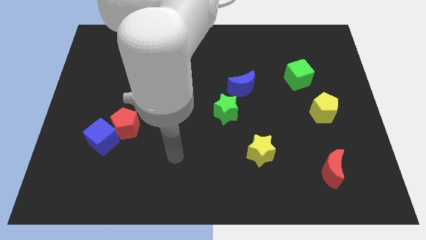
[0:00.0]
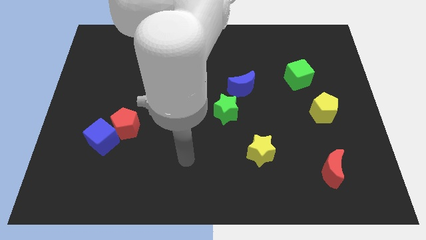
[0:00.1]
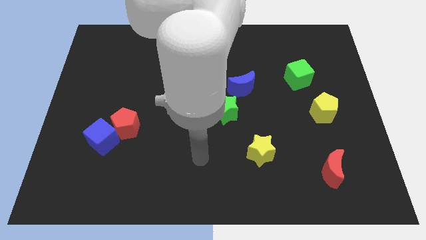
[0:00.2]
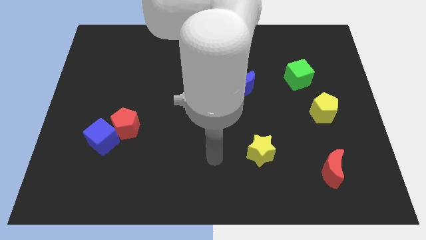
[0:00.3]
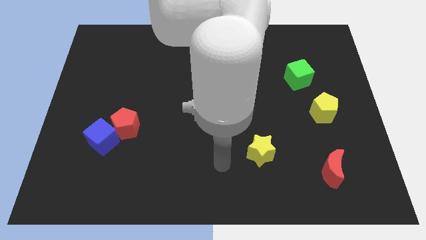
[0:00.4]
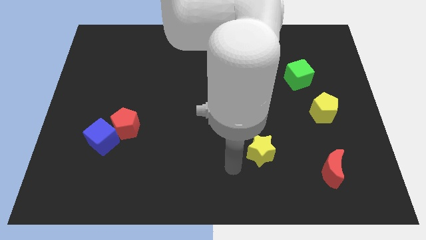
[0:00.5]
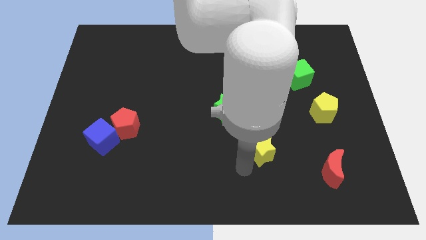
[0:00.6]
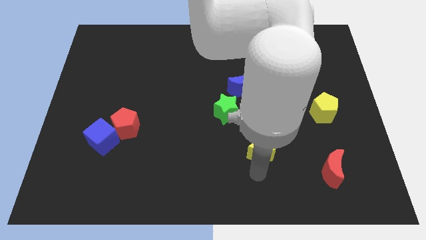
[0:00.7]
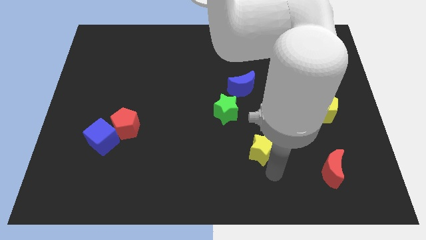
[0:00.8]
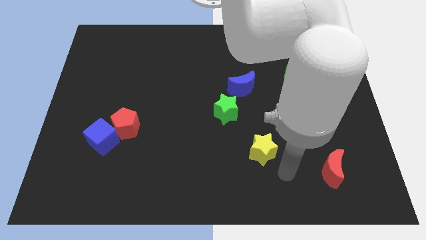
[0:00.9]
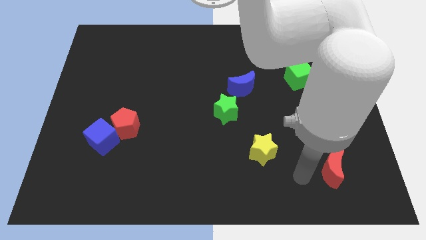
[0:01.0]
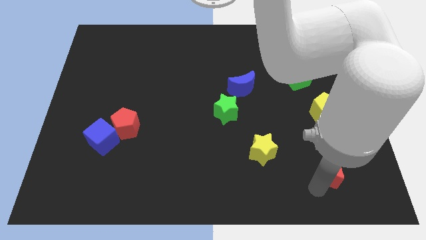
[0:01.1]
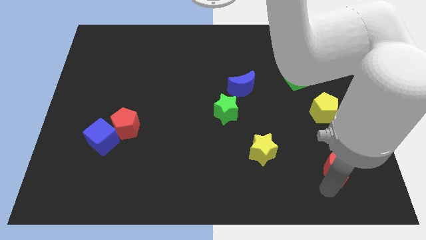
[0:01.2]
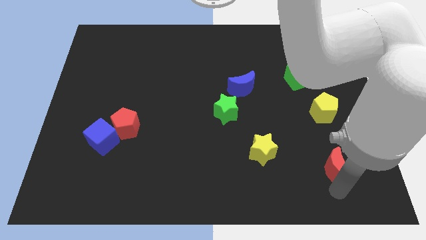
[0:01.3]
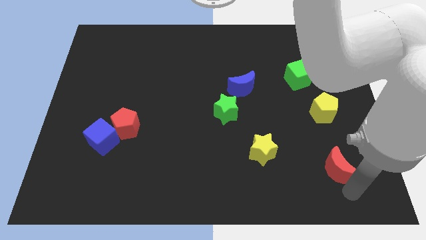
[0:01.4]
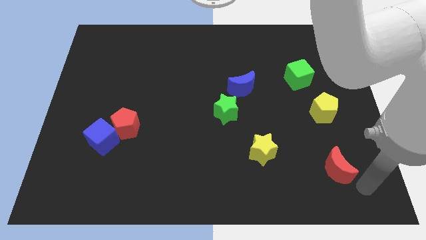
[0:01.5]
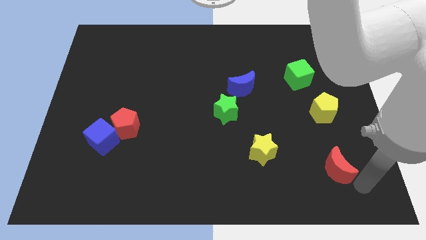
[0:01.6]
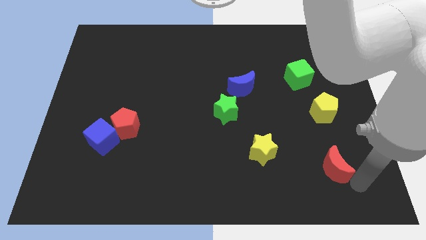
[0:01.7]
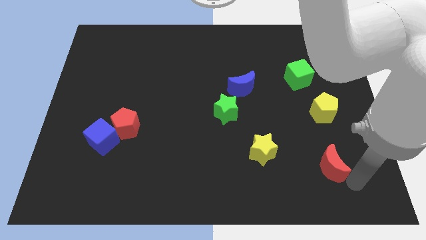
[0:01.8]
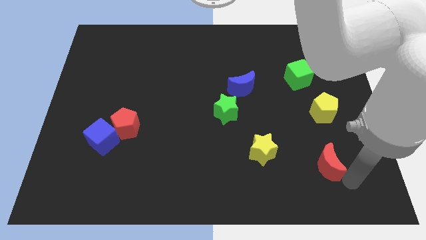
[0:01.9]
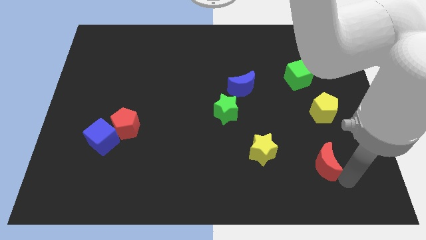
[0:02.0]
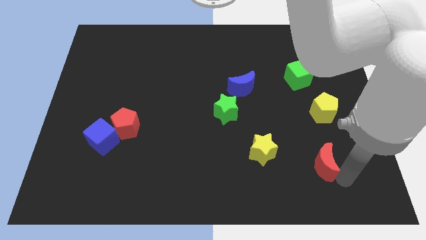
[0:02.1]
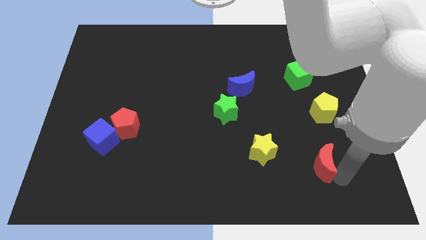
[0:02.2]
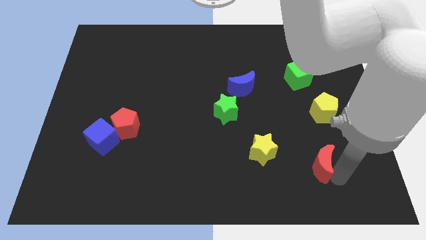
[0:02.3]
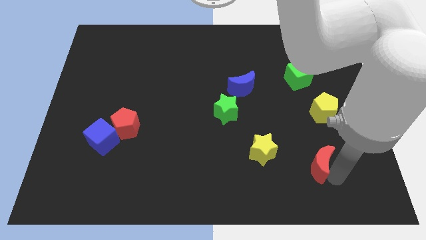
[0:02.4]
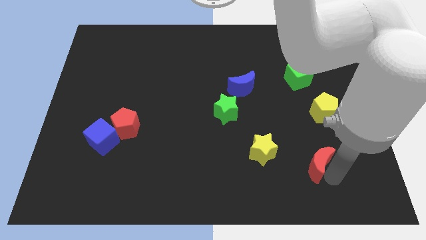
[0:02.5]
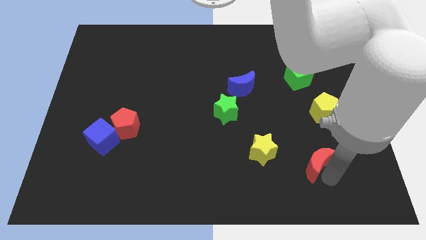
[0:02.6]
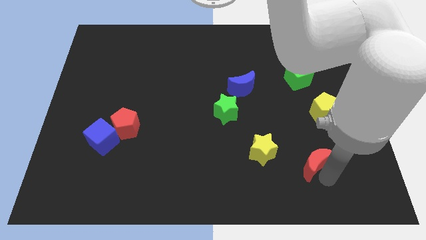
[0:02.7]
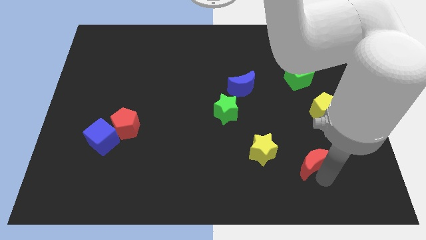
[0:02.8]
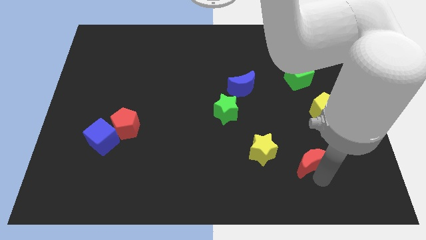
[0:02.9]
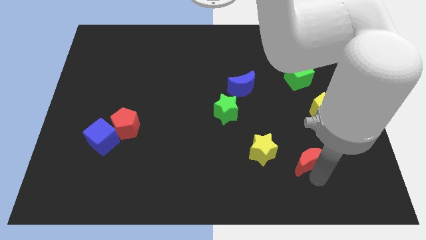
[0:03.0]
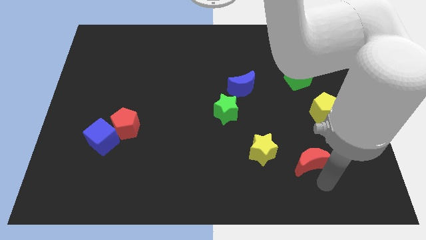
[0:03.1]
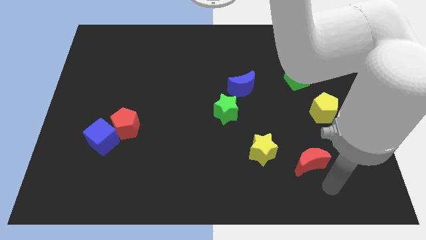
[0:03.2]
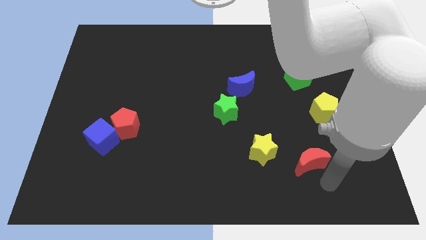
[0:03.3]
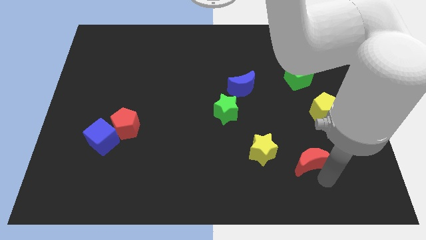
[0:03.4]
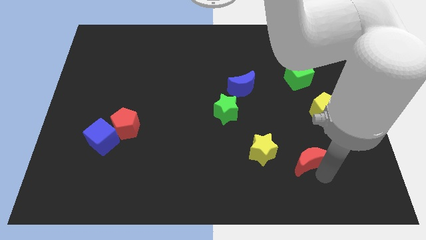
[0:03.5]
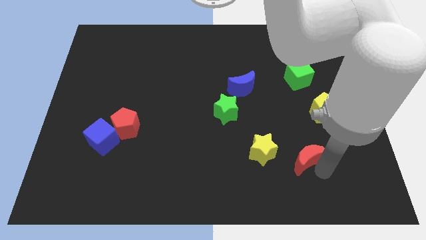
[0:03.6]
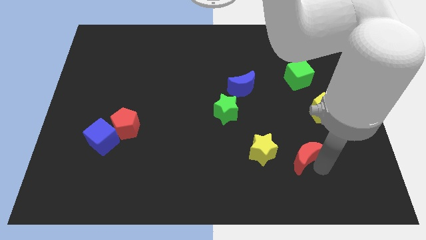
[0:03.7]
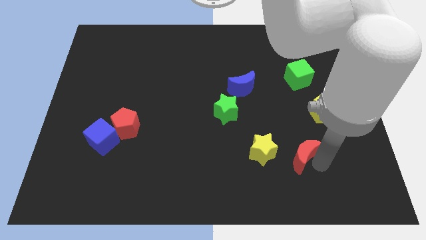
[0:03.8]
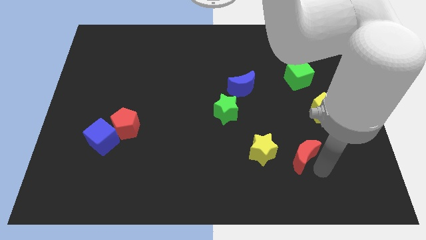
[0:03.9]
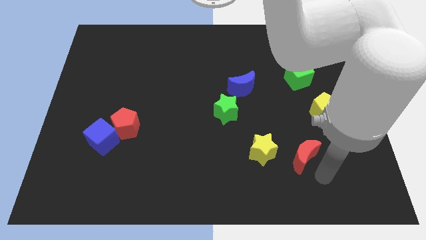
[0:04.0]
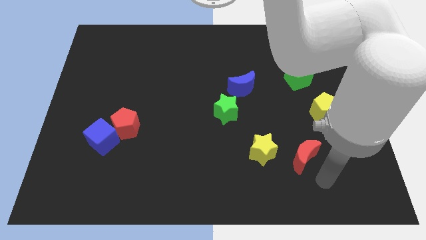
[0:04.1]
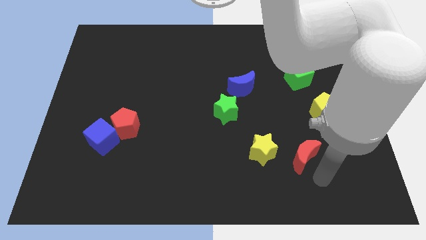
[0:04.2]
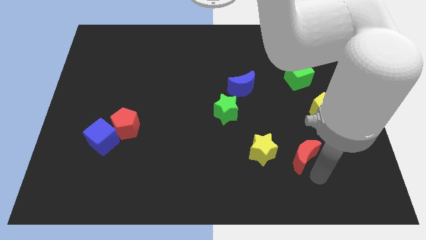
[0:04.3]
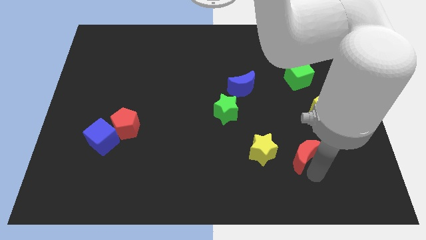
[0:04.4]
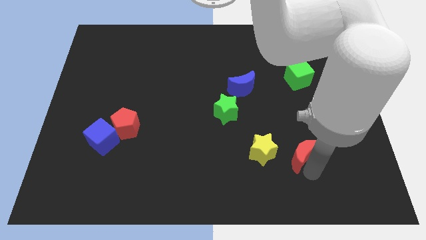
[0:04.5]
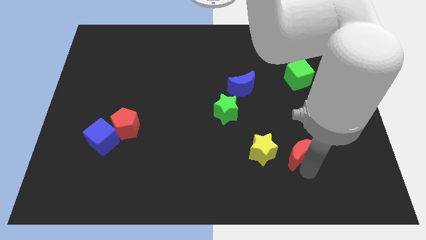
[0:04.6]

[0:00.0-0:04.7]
push the red moon up and left a bit

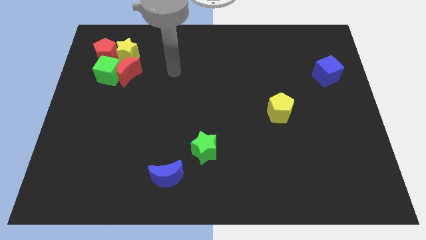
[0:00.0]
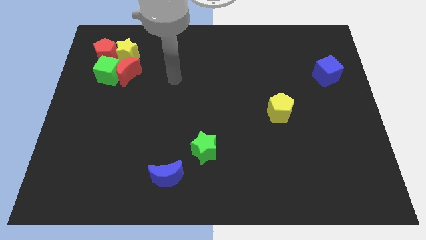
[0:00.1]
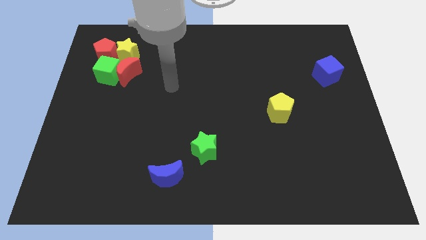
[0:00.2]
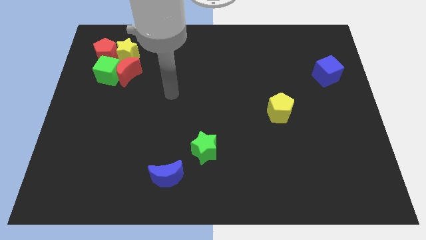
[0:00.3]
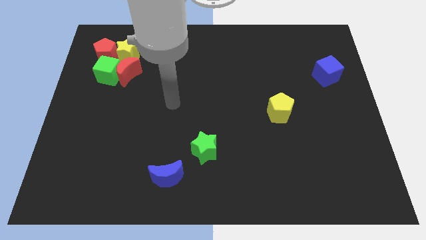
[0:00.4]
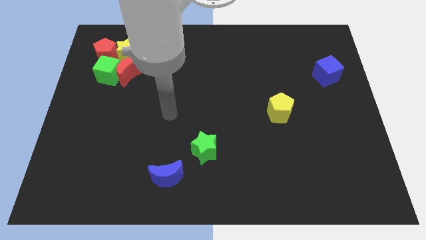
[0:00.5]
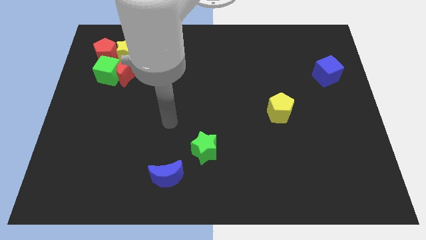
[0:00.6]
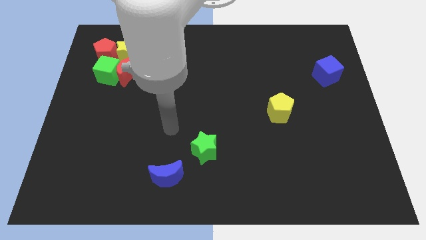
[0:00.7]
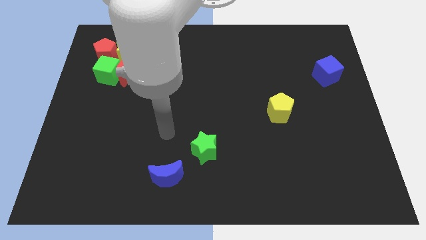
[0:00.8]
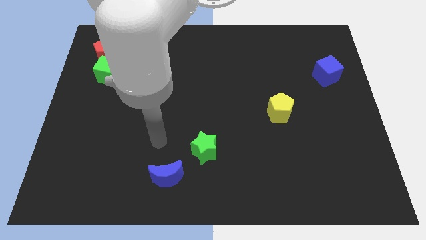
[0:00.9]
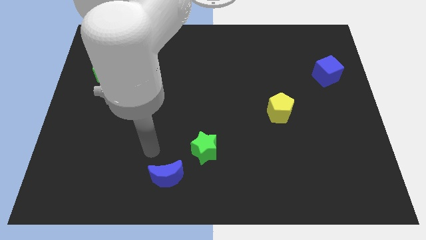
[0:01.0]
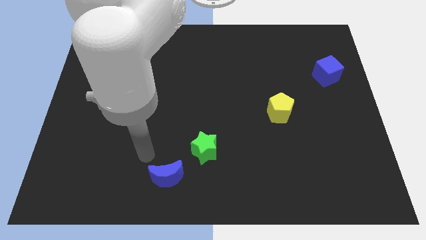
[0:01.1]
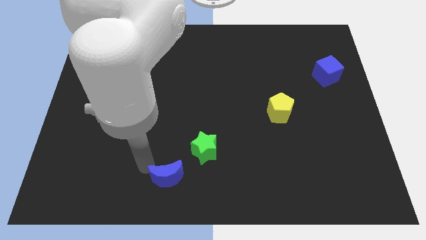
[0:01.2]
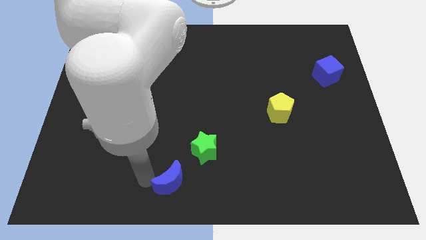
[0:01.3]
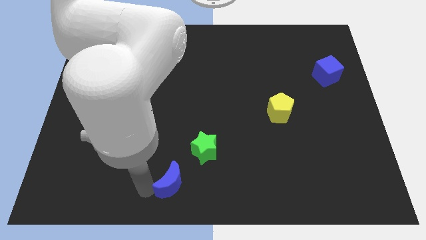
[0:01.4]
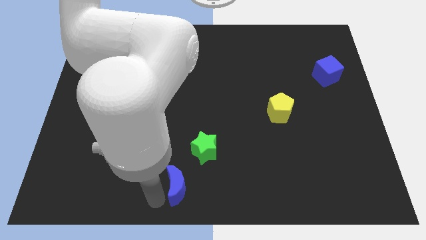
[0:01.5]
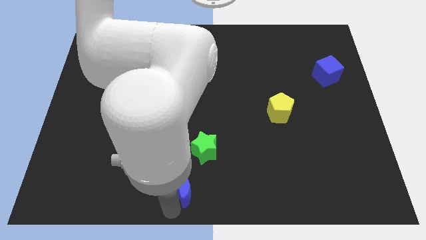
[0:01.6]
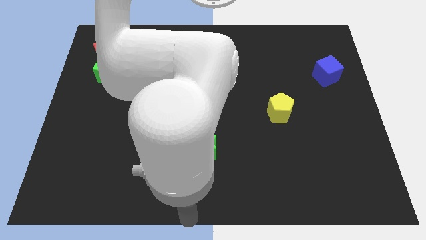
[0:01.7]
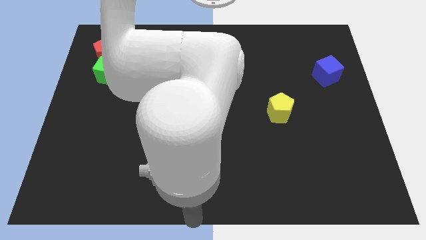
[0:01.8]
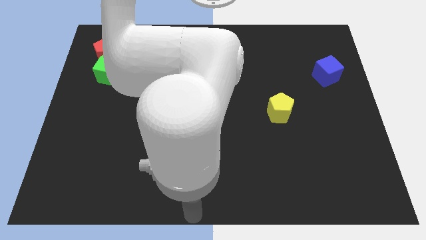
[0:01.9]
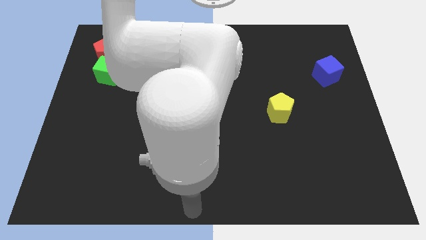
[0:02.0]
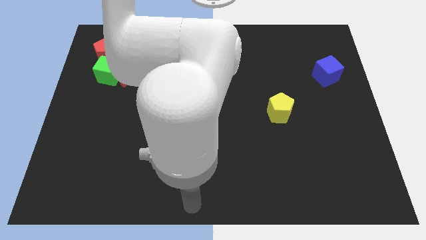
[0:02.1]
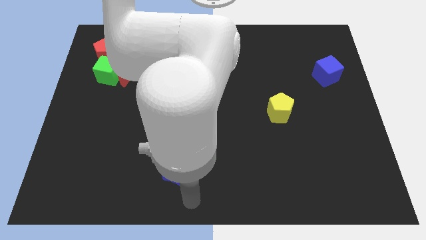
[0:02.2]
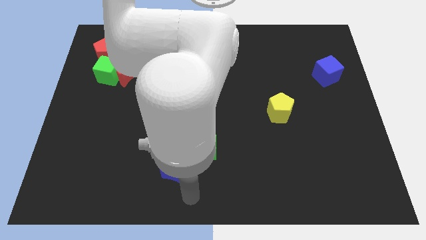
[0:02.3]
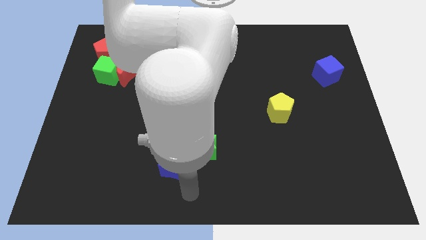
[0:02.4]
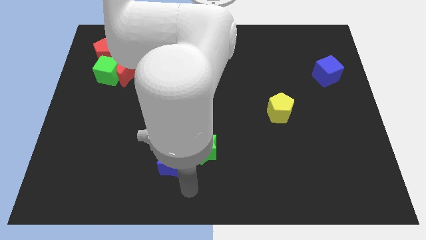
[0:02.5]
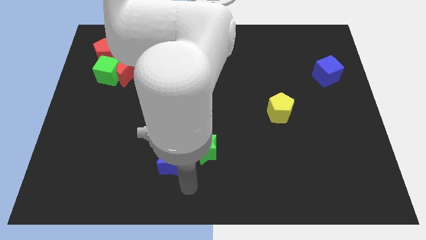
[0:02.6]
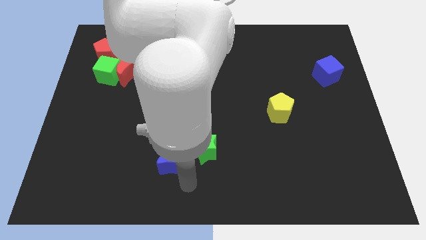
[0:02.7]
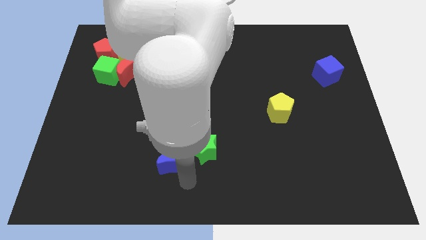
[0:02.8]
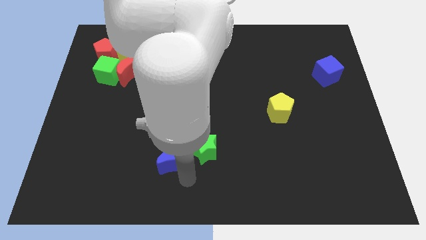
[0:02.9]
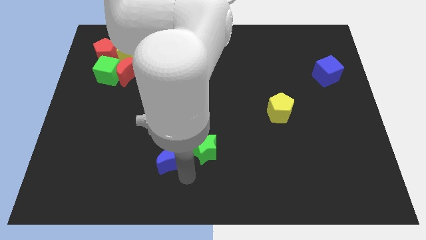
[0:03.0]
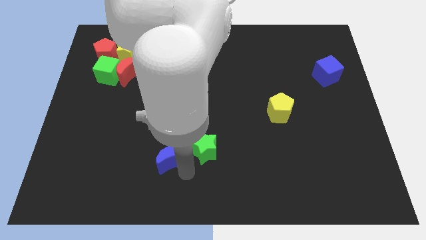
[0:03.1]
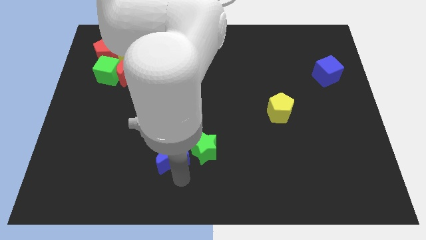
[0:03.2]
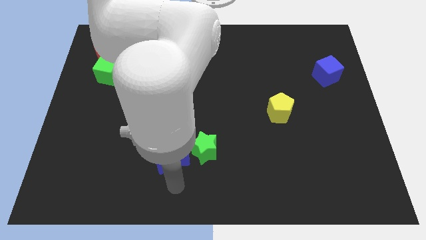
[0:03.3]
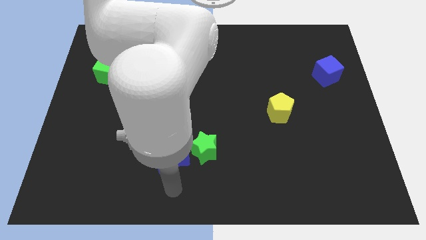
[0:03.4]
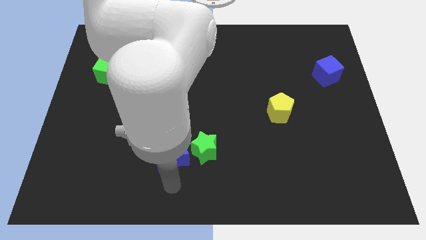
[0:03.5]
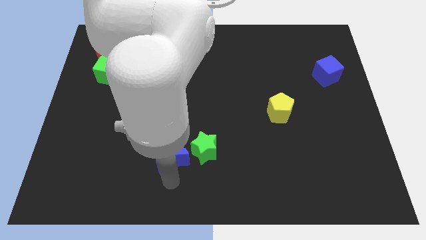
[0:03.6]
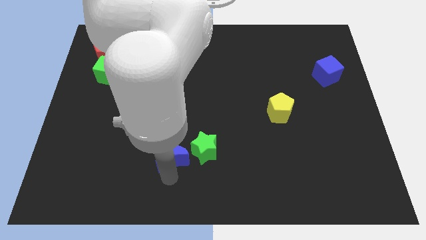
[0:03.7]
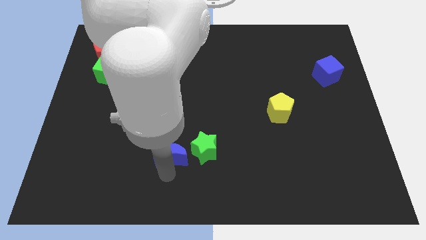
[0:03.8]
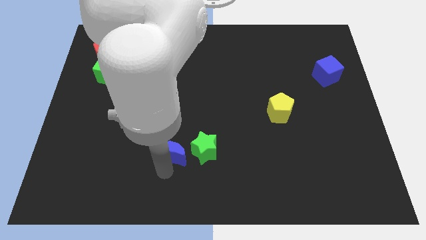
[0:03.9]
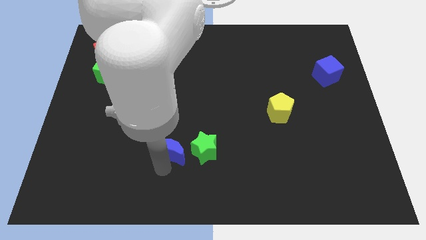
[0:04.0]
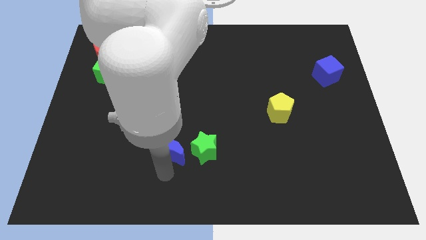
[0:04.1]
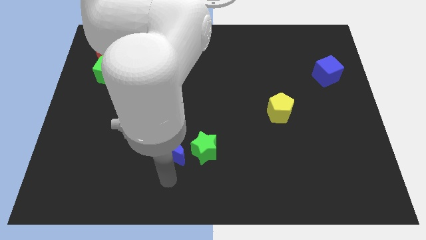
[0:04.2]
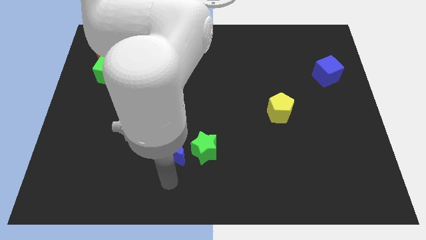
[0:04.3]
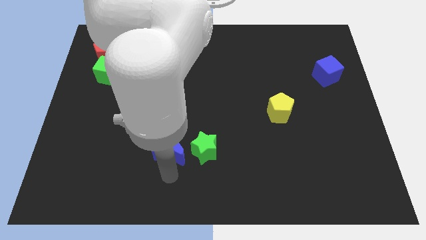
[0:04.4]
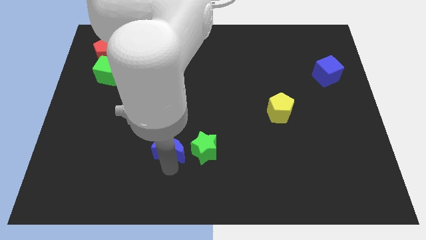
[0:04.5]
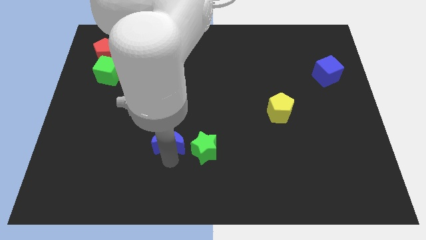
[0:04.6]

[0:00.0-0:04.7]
slide the blue moon slightly upwards
